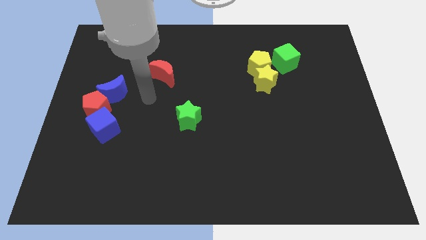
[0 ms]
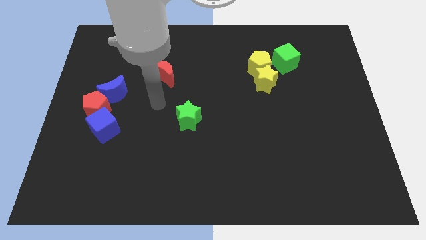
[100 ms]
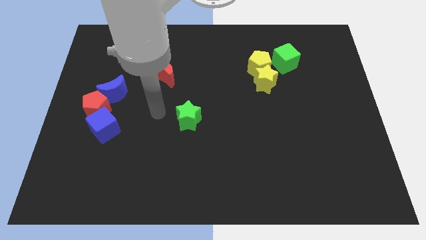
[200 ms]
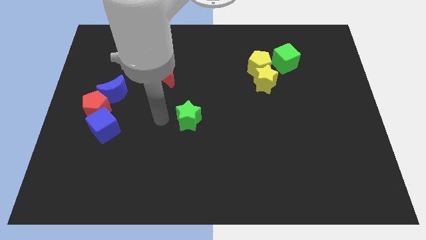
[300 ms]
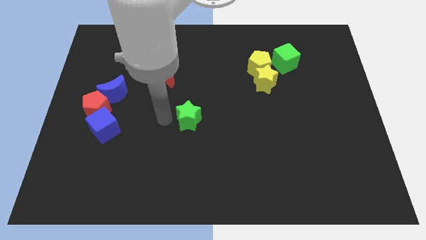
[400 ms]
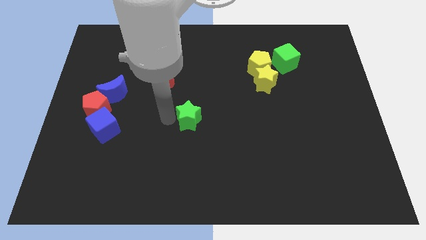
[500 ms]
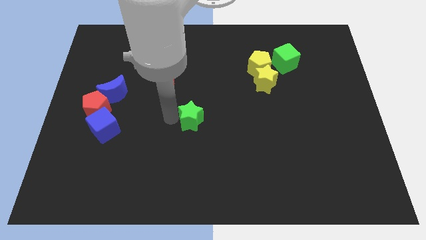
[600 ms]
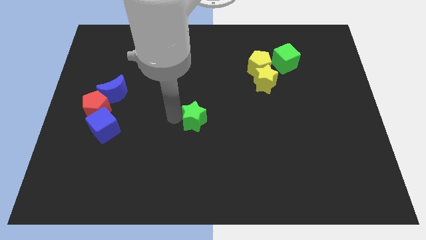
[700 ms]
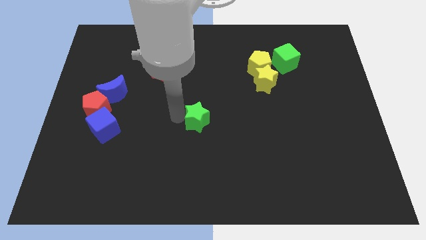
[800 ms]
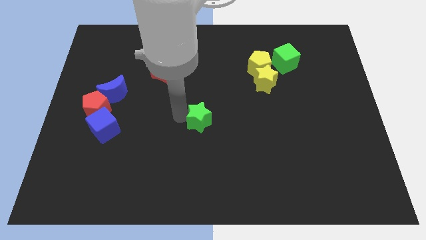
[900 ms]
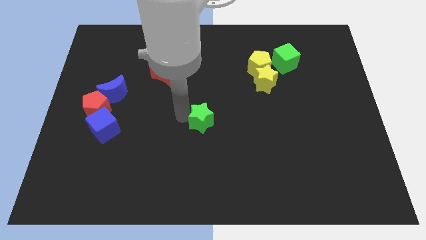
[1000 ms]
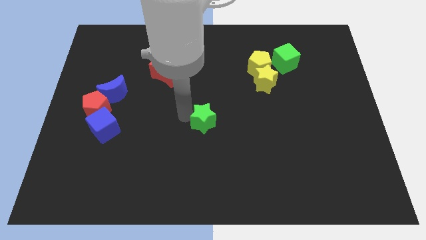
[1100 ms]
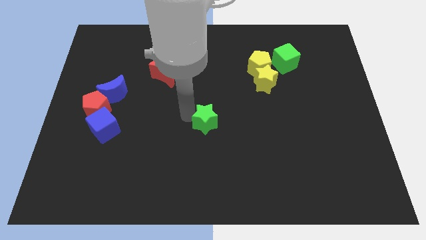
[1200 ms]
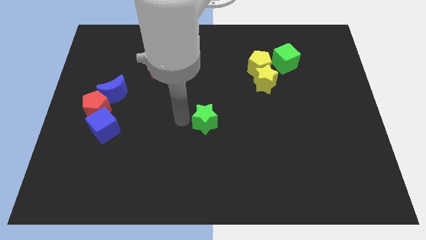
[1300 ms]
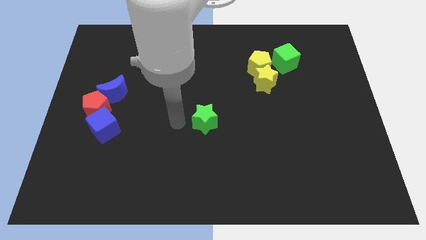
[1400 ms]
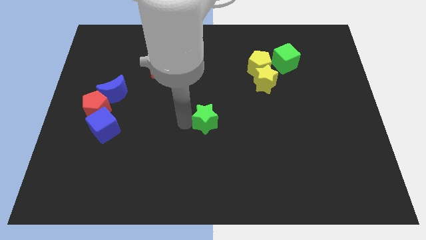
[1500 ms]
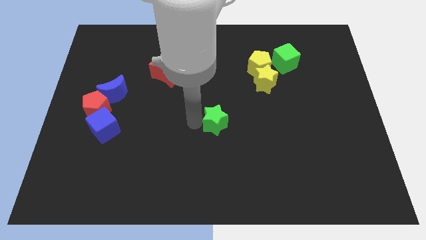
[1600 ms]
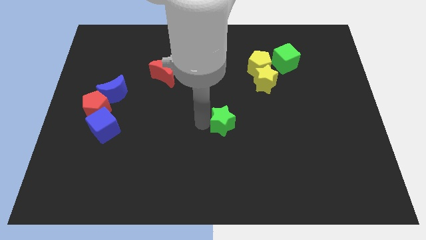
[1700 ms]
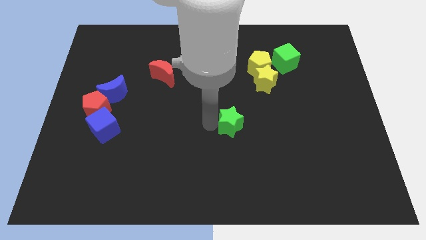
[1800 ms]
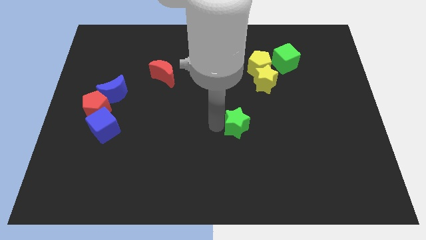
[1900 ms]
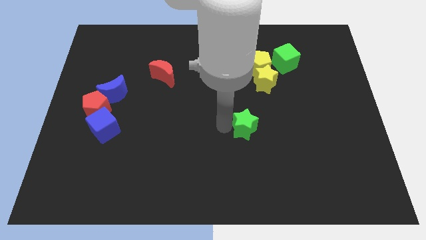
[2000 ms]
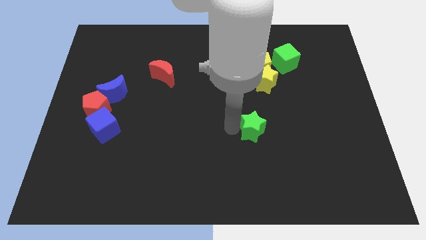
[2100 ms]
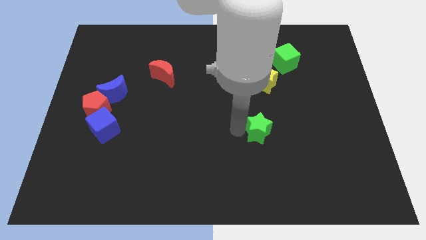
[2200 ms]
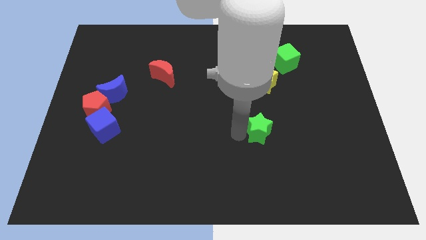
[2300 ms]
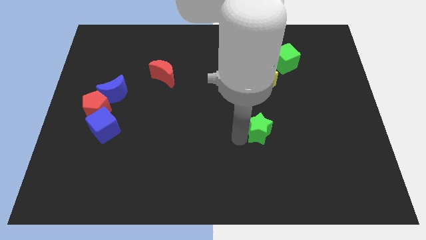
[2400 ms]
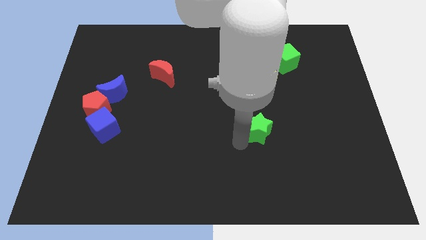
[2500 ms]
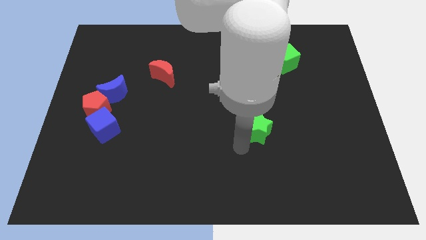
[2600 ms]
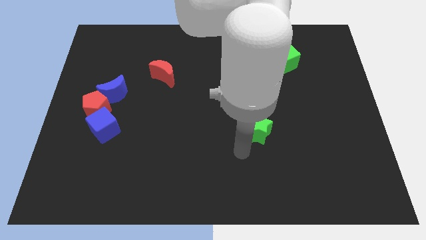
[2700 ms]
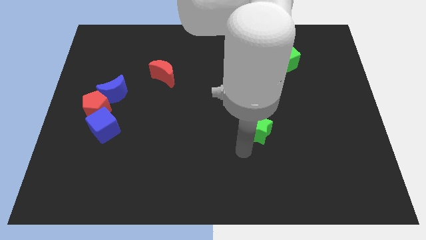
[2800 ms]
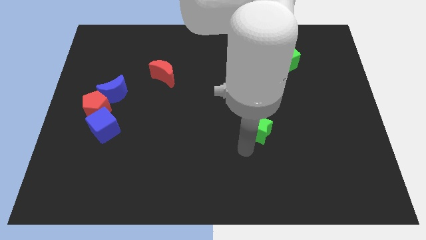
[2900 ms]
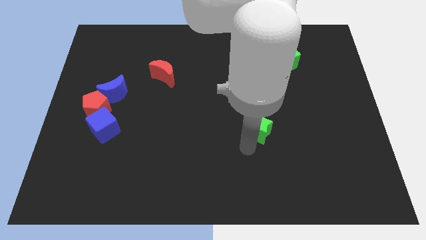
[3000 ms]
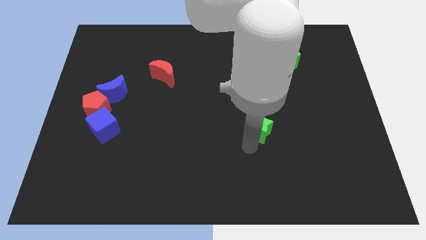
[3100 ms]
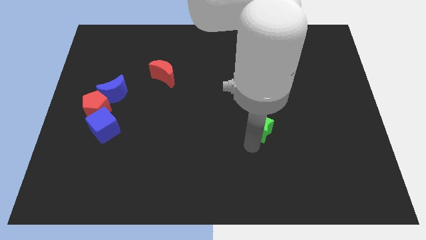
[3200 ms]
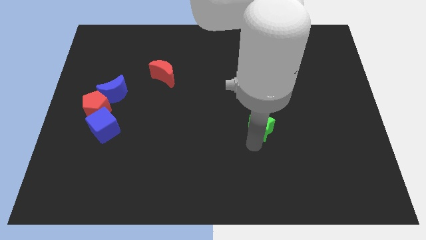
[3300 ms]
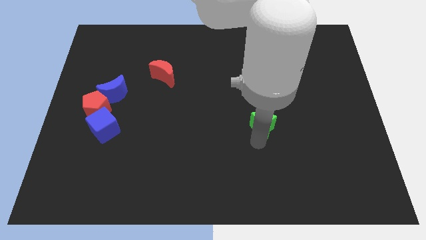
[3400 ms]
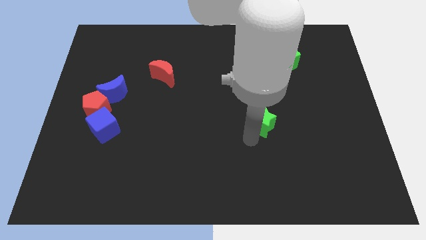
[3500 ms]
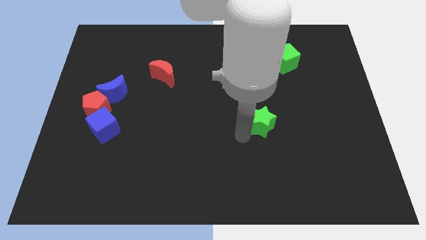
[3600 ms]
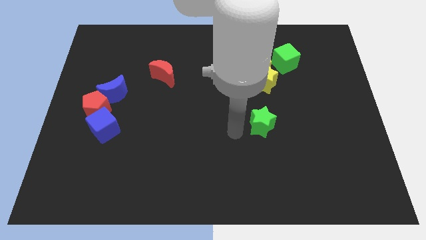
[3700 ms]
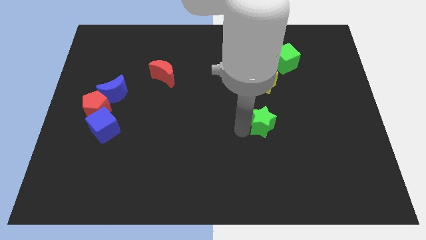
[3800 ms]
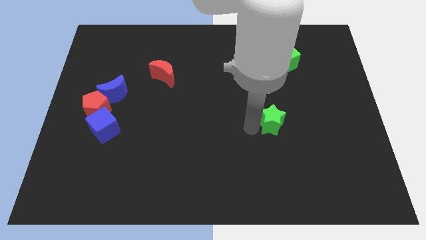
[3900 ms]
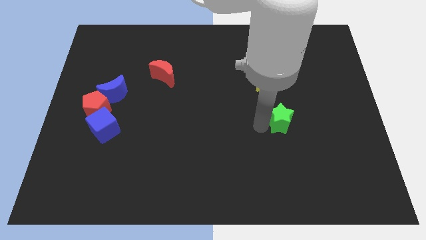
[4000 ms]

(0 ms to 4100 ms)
push the green star to the right

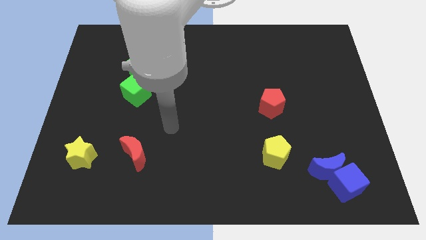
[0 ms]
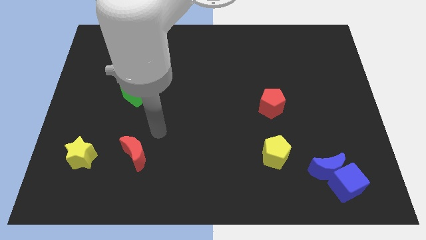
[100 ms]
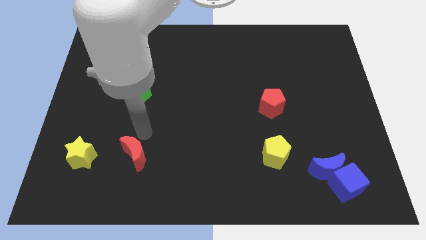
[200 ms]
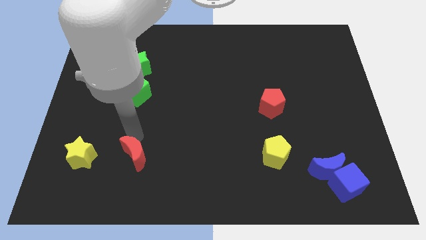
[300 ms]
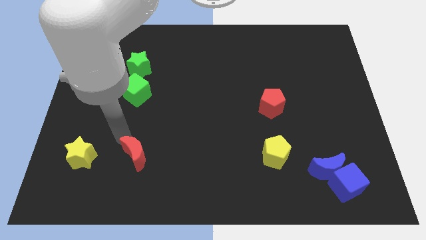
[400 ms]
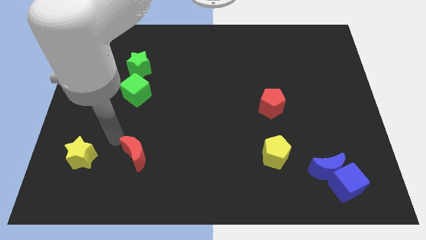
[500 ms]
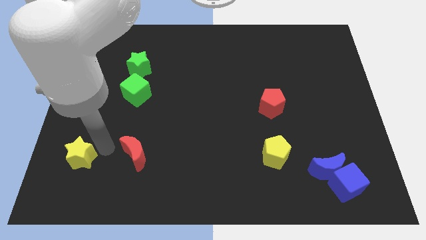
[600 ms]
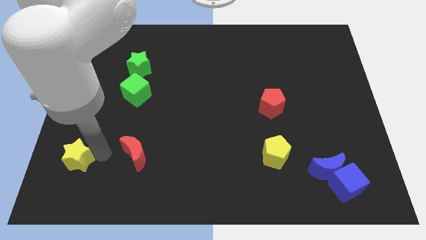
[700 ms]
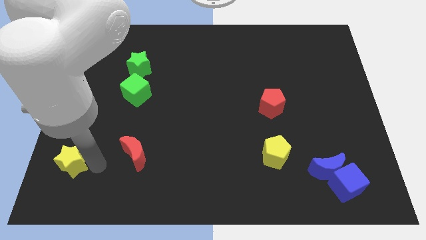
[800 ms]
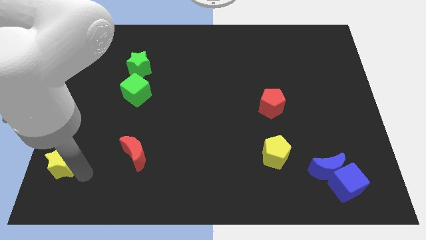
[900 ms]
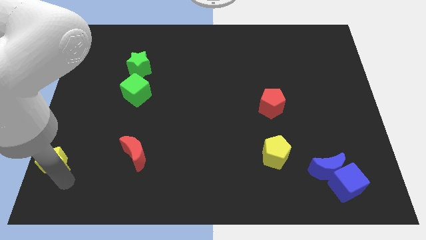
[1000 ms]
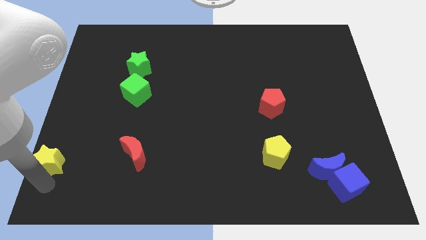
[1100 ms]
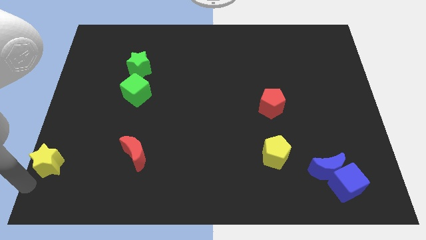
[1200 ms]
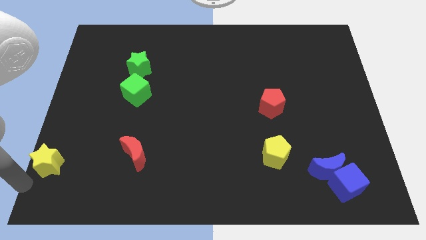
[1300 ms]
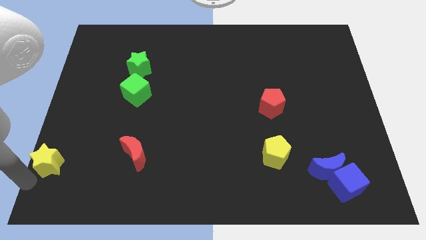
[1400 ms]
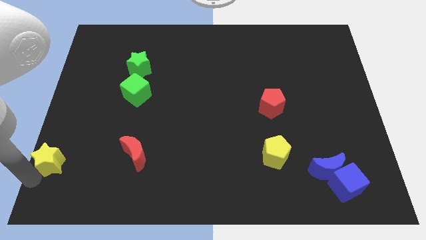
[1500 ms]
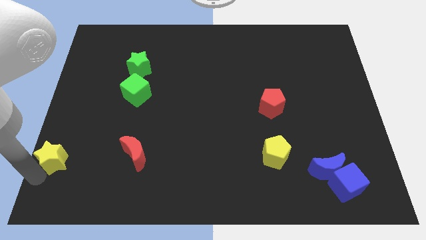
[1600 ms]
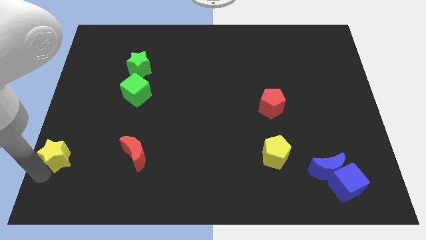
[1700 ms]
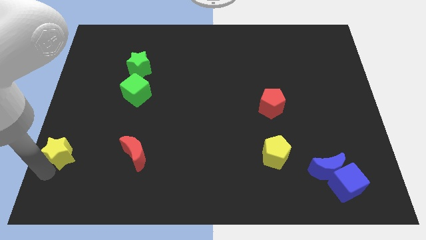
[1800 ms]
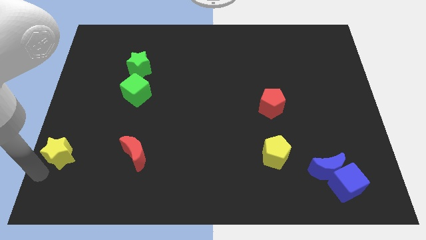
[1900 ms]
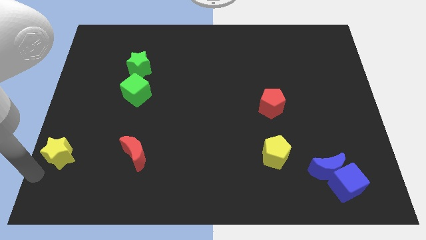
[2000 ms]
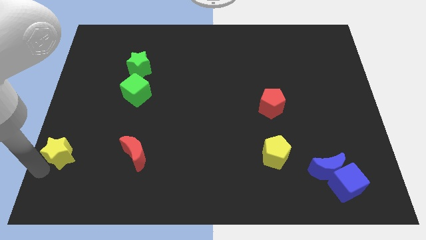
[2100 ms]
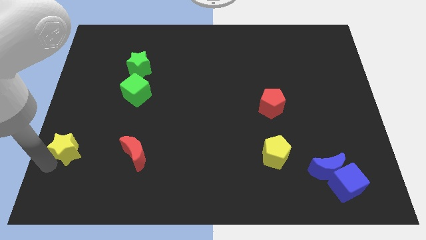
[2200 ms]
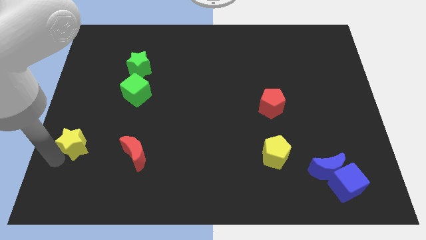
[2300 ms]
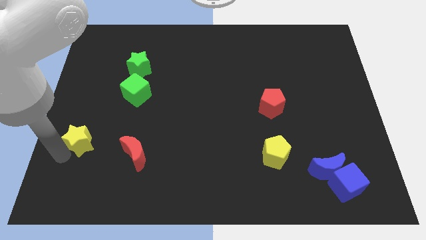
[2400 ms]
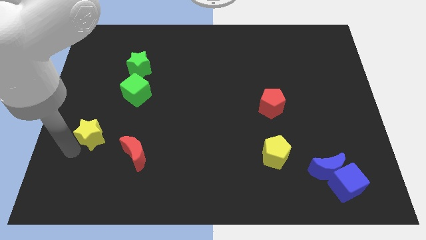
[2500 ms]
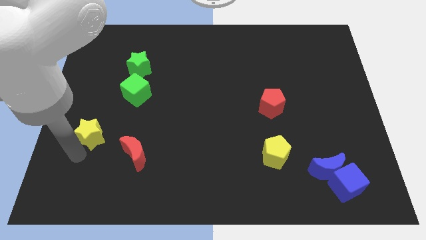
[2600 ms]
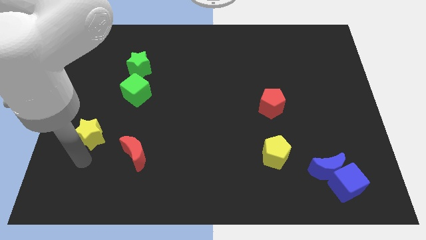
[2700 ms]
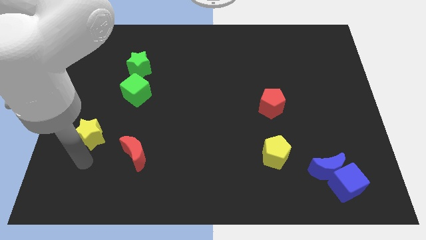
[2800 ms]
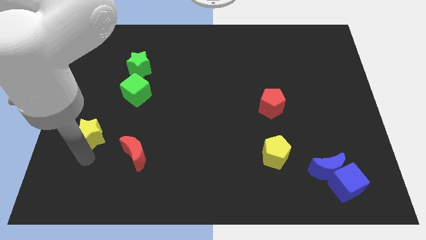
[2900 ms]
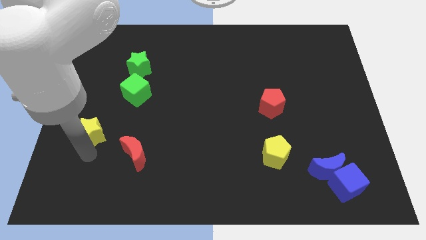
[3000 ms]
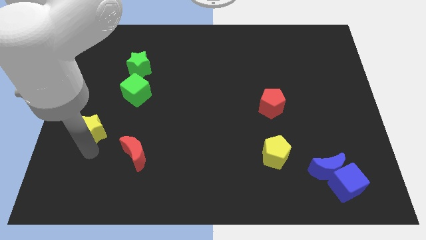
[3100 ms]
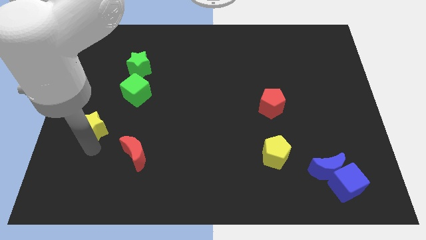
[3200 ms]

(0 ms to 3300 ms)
push the yellow star upwards slightly

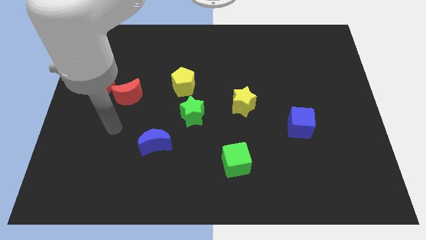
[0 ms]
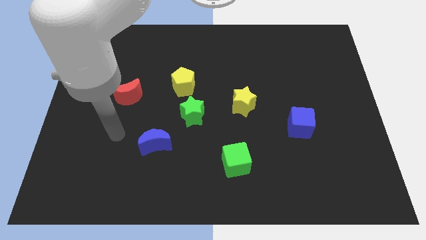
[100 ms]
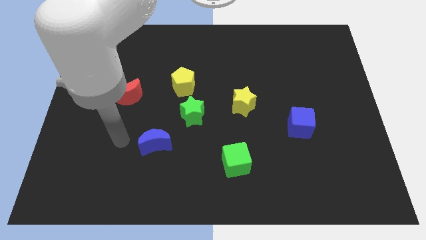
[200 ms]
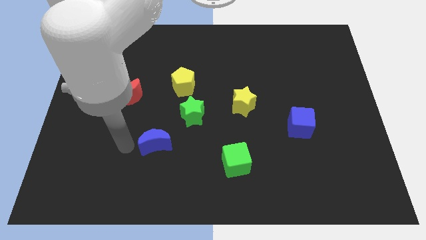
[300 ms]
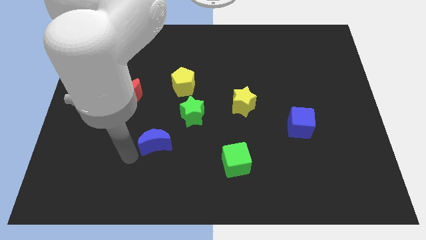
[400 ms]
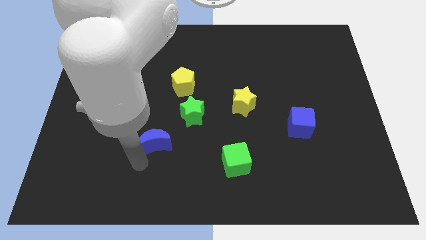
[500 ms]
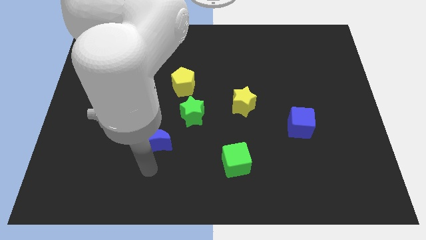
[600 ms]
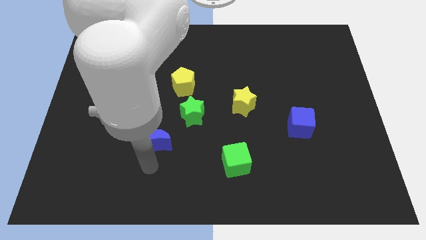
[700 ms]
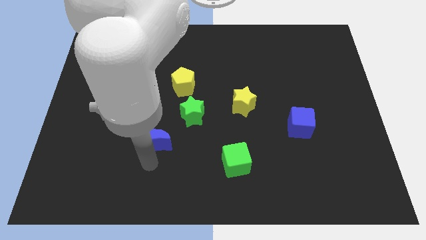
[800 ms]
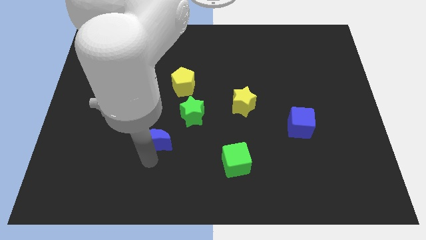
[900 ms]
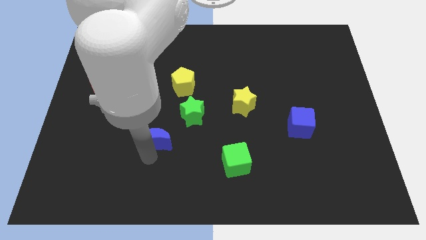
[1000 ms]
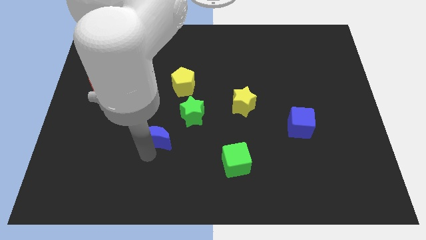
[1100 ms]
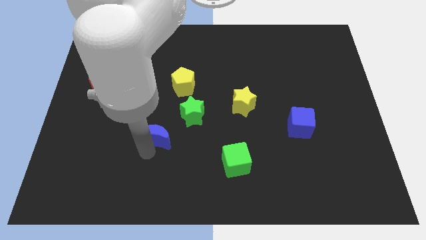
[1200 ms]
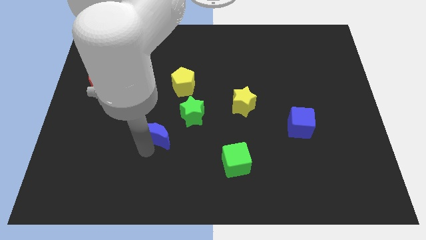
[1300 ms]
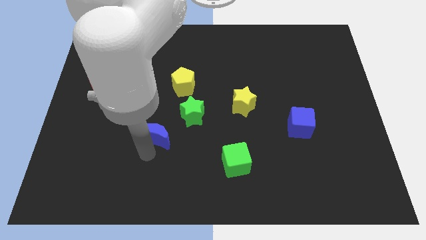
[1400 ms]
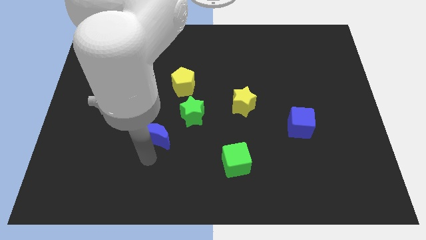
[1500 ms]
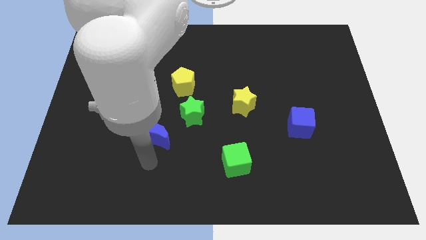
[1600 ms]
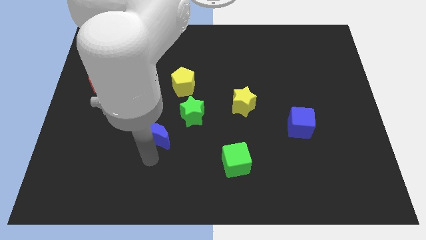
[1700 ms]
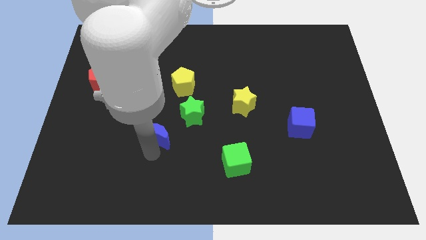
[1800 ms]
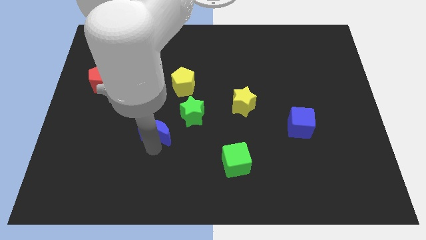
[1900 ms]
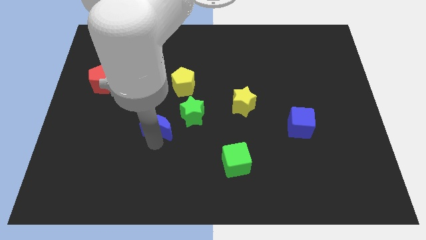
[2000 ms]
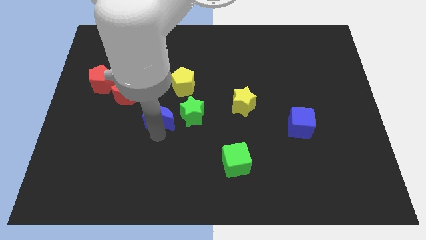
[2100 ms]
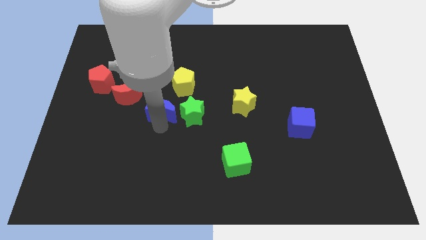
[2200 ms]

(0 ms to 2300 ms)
move the blue moon a bit up
